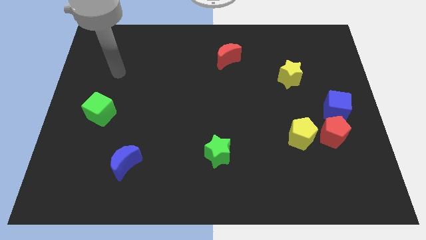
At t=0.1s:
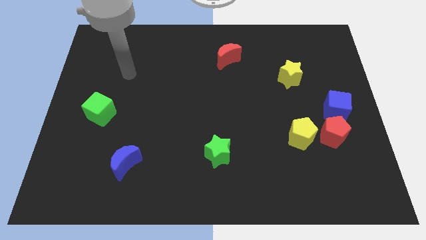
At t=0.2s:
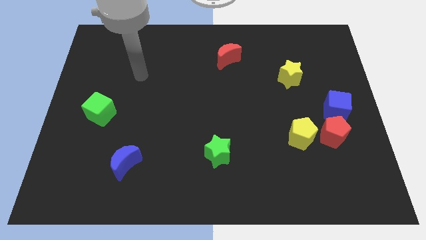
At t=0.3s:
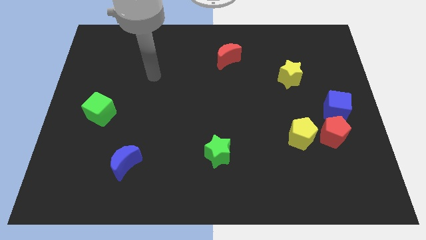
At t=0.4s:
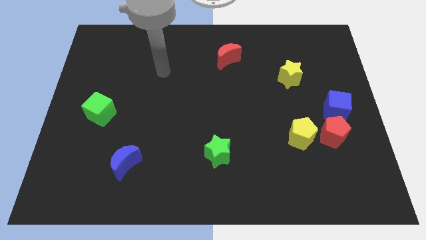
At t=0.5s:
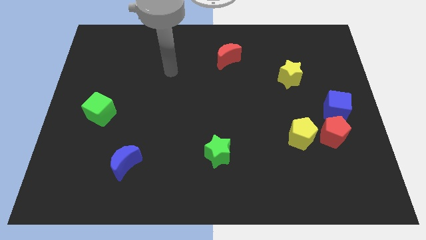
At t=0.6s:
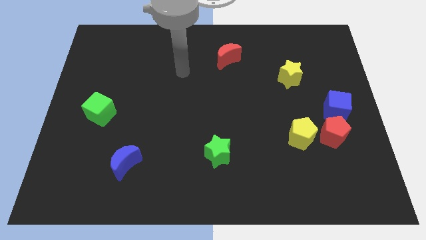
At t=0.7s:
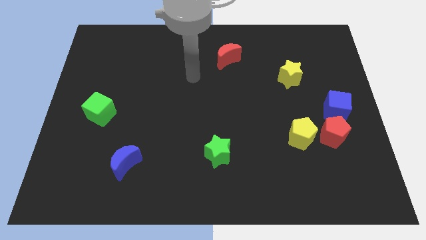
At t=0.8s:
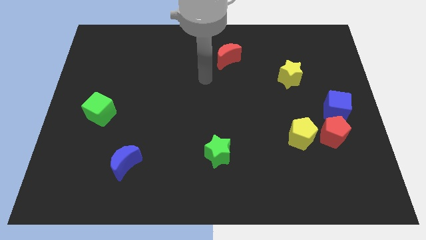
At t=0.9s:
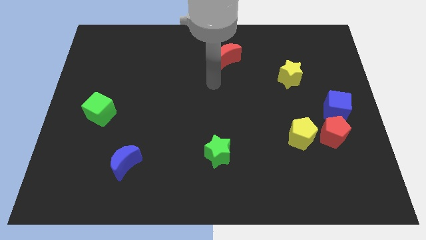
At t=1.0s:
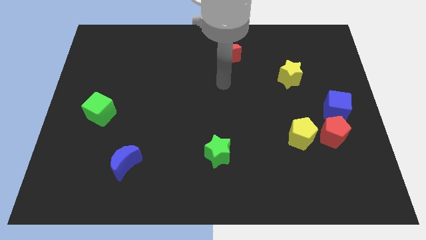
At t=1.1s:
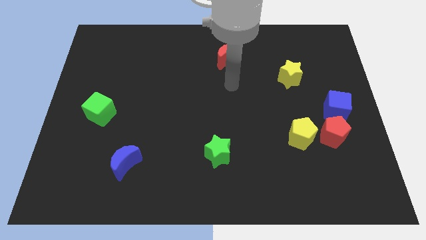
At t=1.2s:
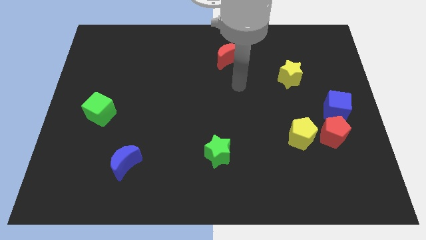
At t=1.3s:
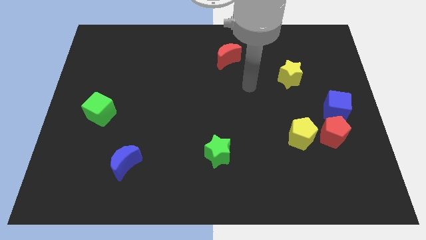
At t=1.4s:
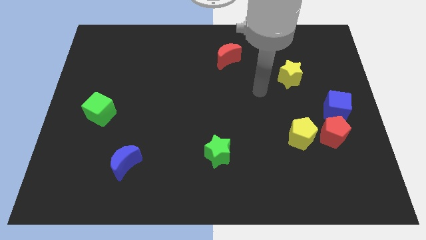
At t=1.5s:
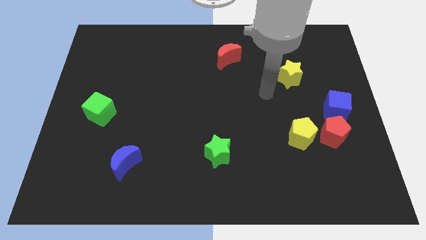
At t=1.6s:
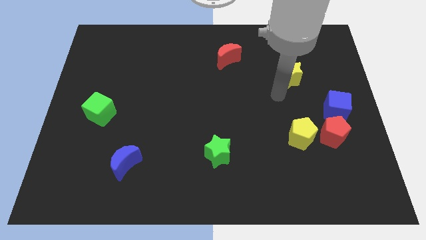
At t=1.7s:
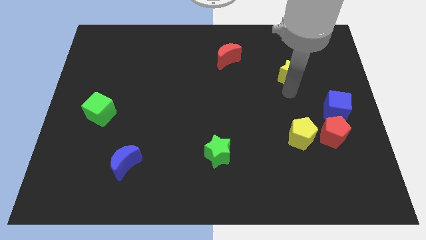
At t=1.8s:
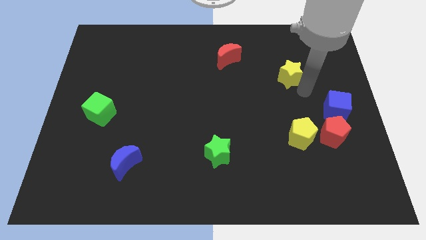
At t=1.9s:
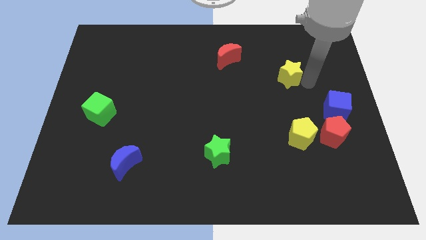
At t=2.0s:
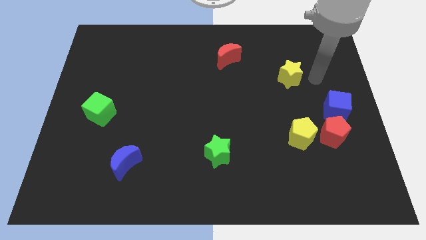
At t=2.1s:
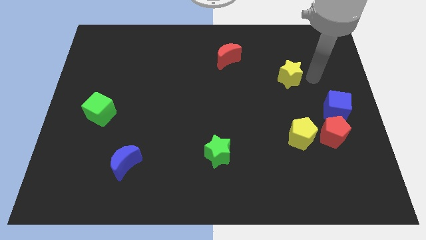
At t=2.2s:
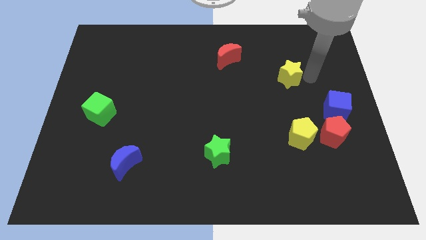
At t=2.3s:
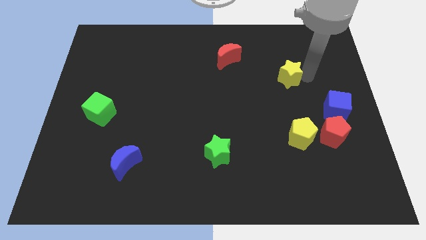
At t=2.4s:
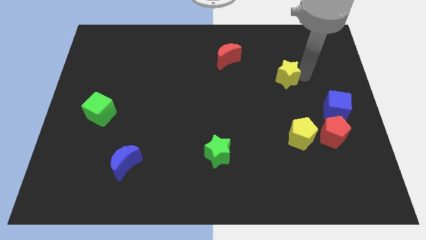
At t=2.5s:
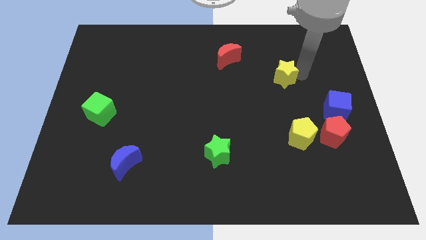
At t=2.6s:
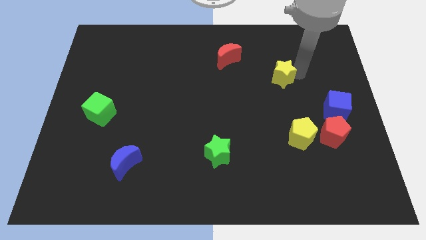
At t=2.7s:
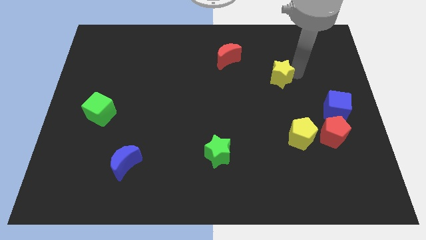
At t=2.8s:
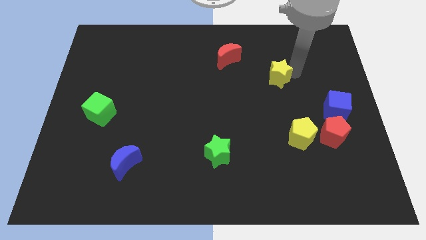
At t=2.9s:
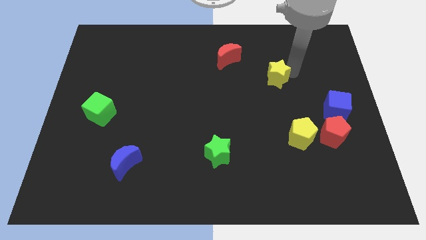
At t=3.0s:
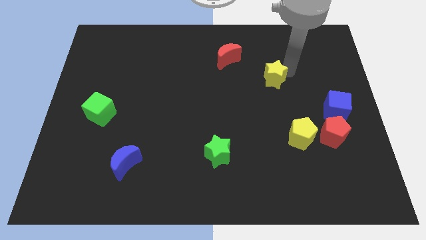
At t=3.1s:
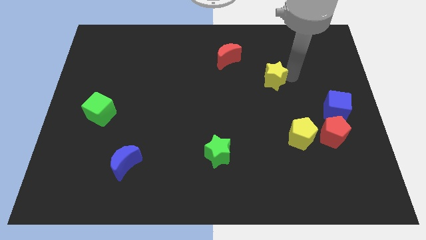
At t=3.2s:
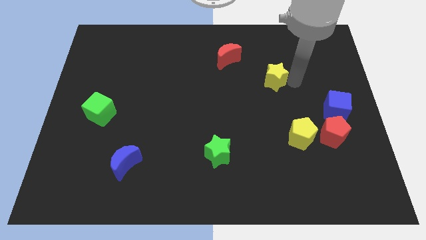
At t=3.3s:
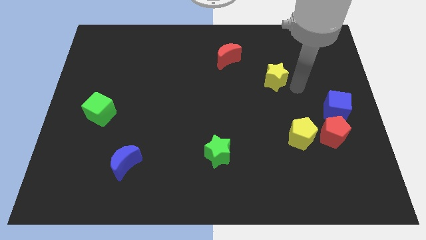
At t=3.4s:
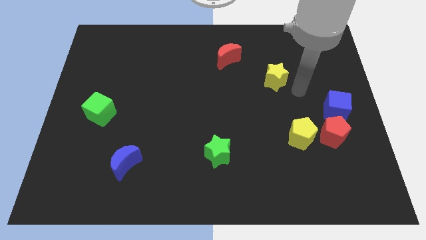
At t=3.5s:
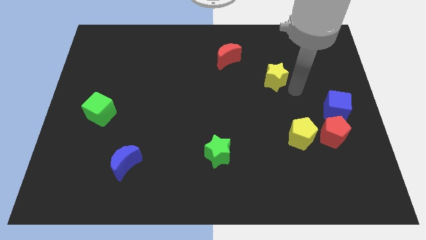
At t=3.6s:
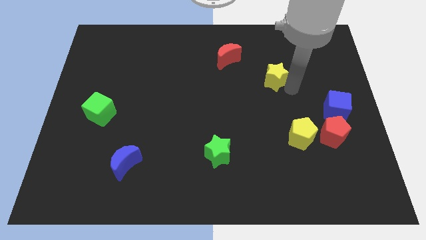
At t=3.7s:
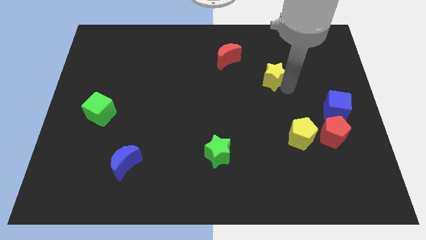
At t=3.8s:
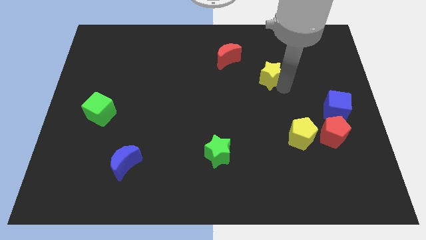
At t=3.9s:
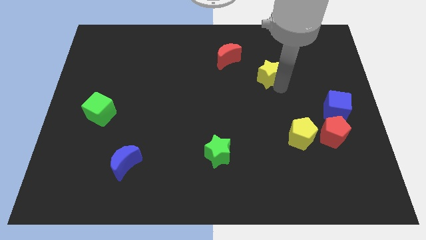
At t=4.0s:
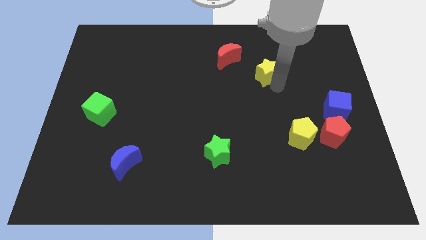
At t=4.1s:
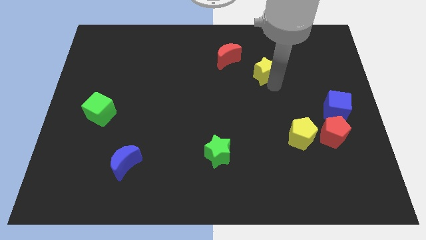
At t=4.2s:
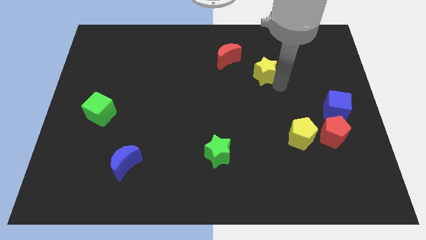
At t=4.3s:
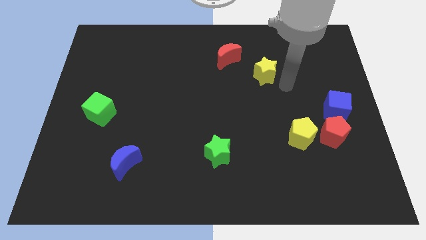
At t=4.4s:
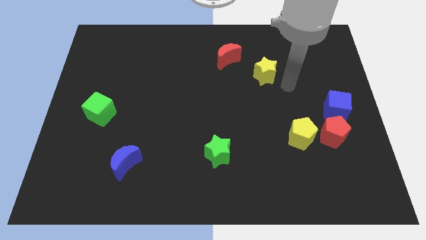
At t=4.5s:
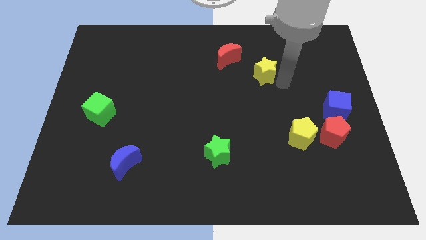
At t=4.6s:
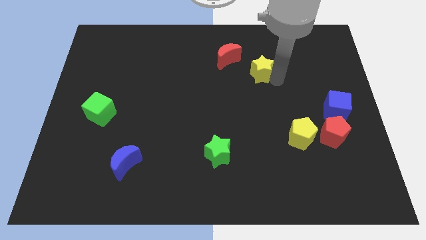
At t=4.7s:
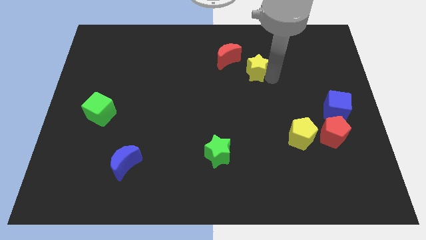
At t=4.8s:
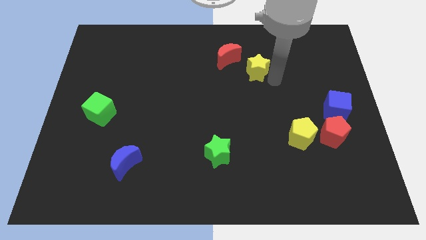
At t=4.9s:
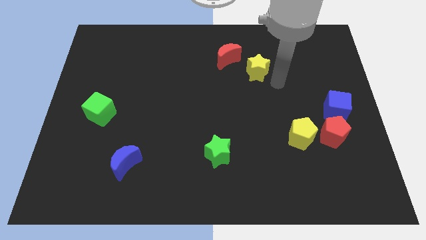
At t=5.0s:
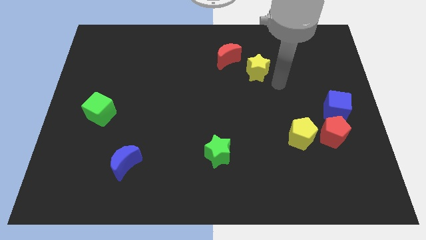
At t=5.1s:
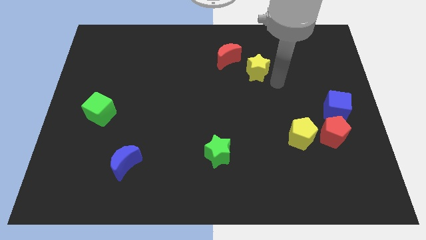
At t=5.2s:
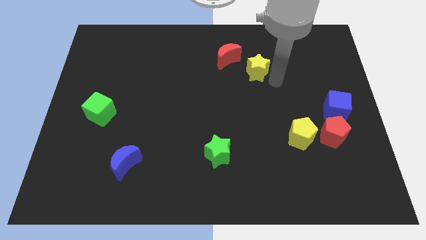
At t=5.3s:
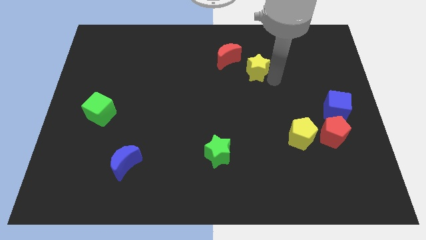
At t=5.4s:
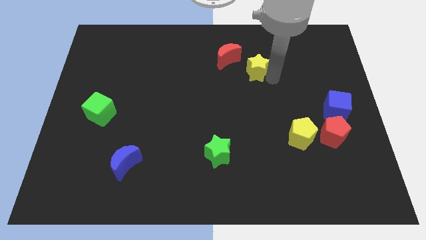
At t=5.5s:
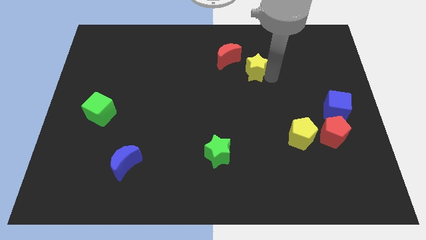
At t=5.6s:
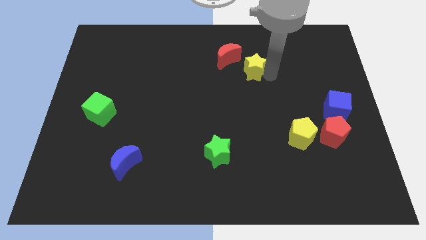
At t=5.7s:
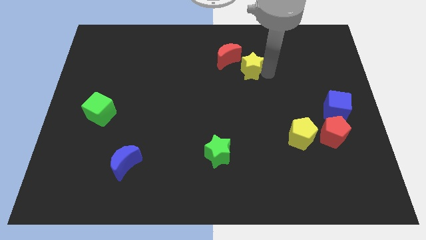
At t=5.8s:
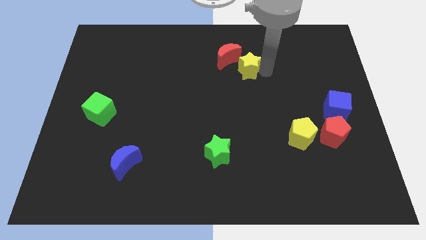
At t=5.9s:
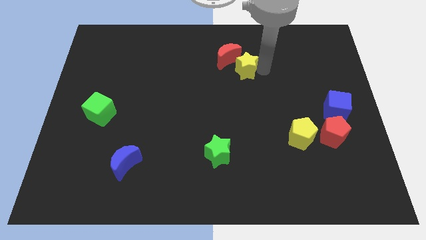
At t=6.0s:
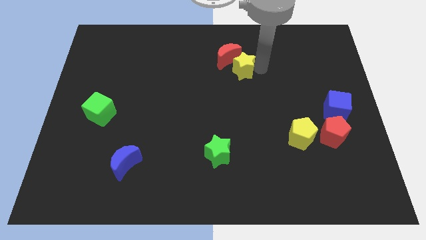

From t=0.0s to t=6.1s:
slide the yellow star next to the red moon
